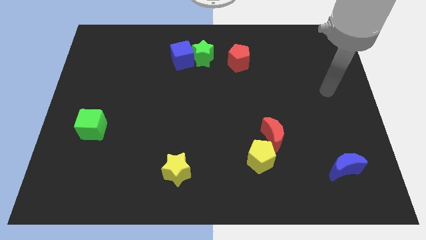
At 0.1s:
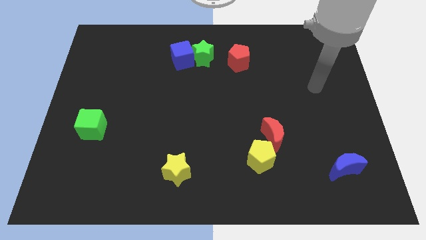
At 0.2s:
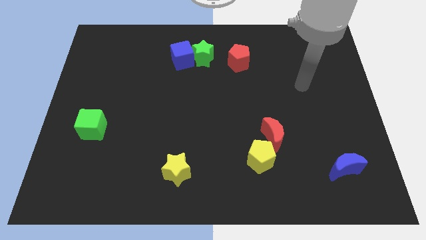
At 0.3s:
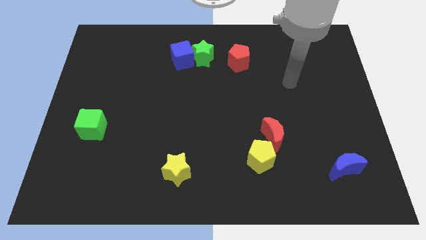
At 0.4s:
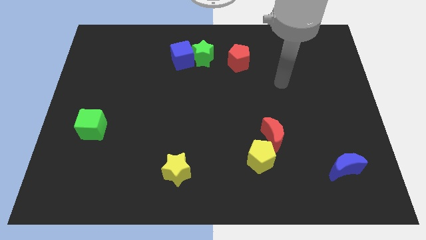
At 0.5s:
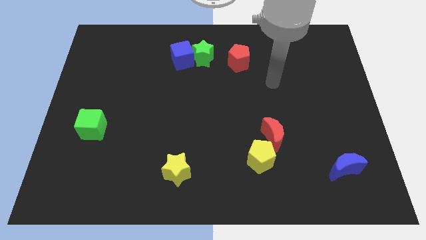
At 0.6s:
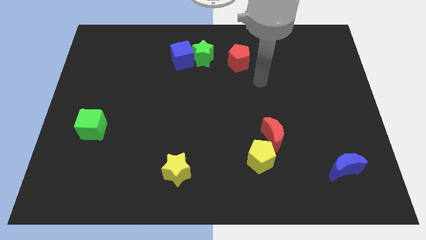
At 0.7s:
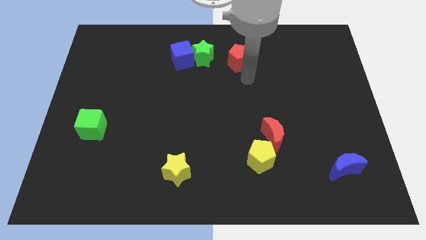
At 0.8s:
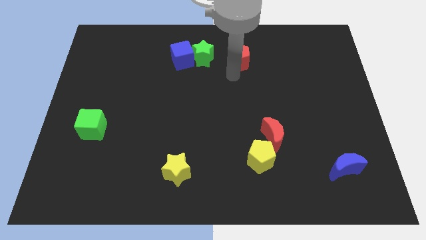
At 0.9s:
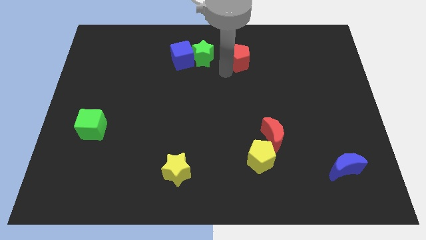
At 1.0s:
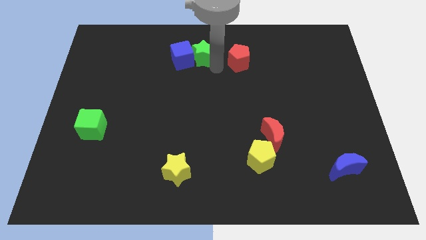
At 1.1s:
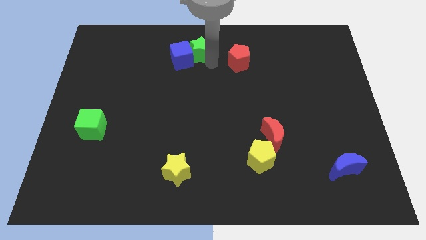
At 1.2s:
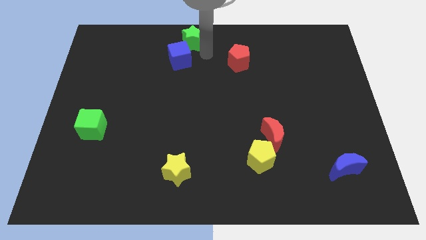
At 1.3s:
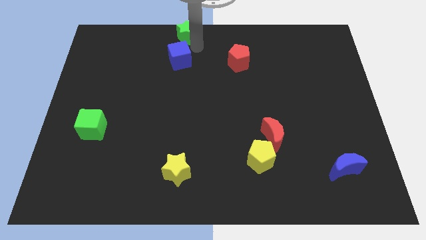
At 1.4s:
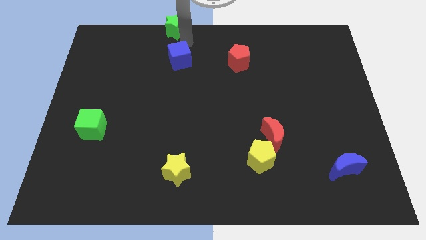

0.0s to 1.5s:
move the blue cube away from the green star

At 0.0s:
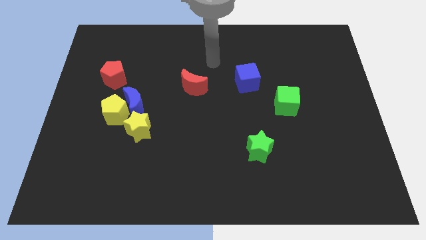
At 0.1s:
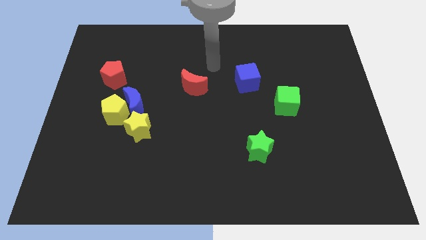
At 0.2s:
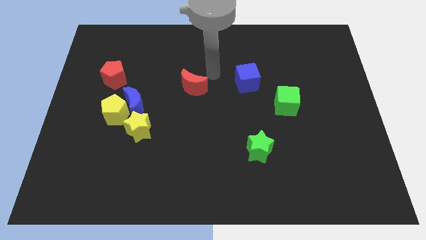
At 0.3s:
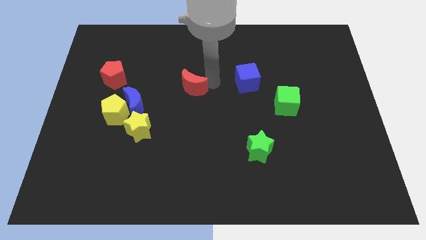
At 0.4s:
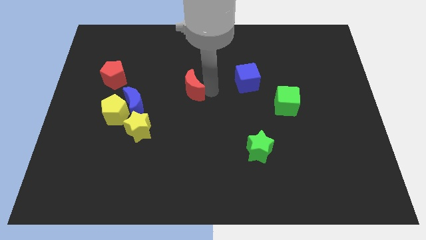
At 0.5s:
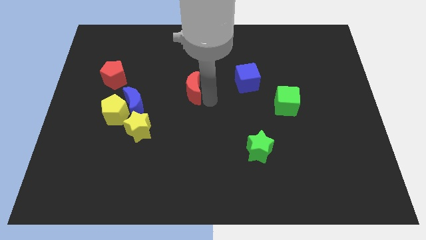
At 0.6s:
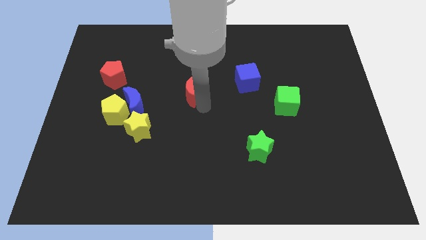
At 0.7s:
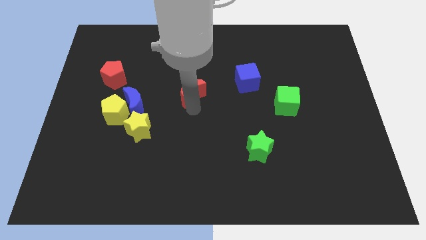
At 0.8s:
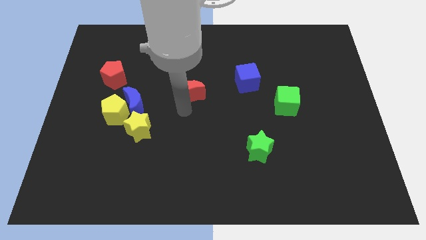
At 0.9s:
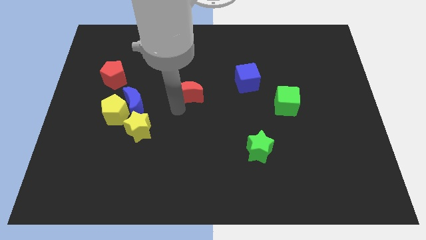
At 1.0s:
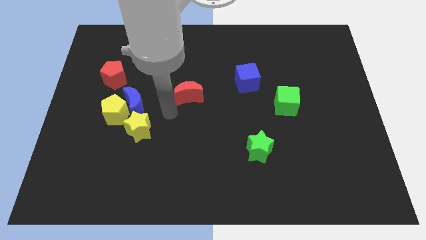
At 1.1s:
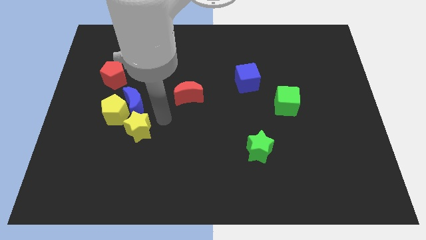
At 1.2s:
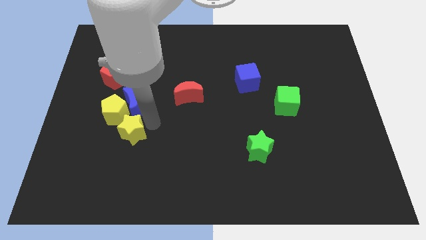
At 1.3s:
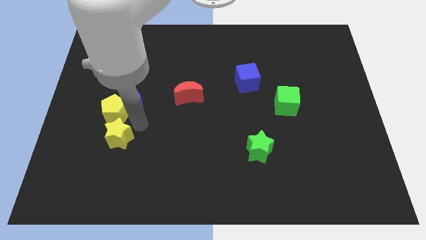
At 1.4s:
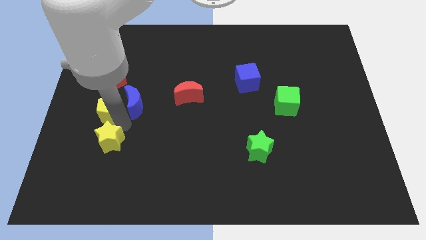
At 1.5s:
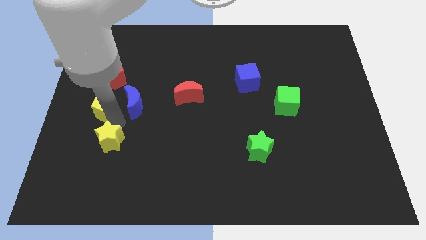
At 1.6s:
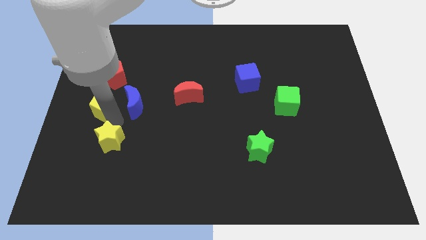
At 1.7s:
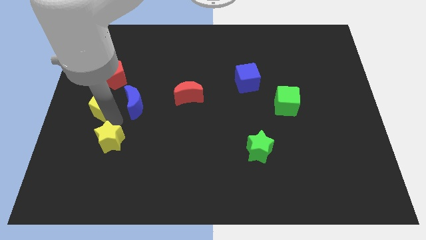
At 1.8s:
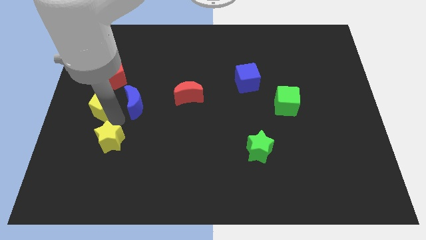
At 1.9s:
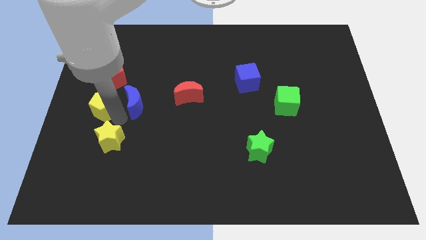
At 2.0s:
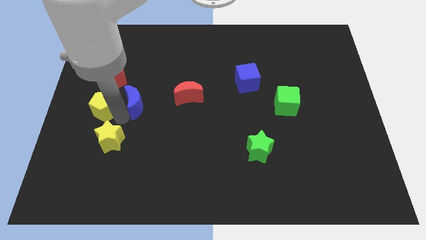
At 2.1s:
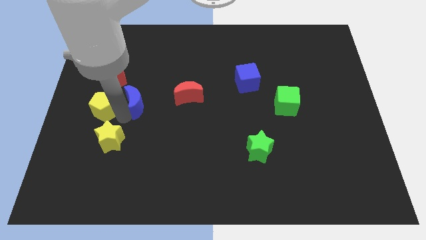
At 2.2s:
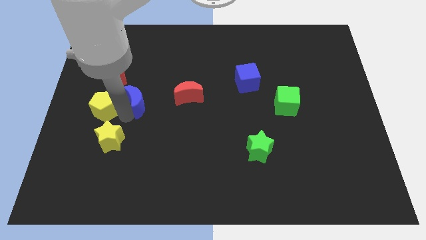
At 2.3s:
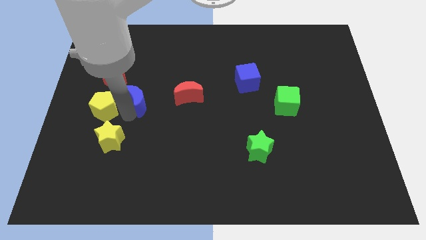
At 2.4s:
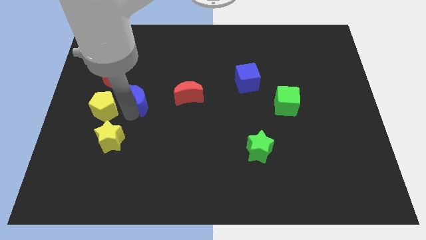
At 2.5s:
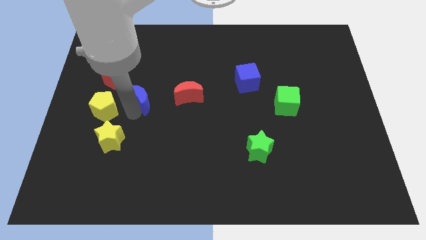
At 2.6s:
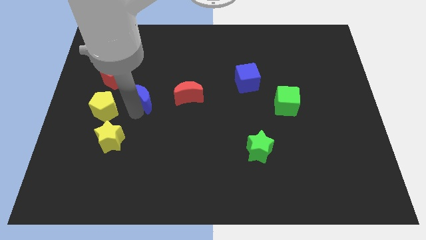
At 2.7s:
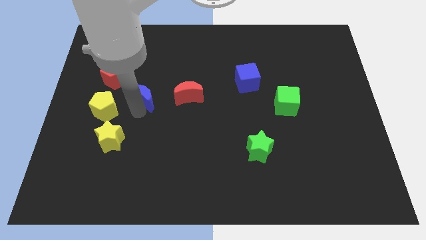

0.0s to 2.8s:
separate the blue moon from the yellow pentagon and yellow star

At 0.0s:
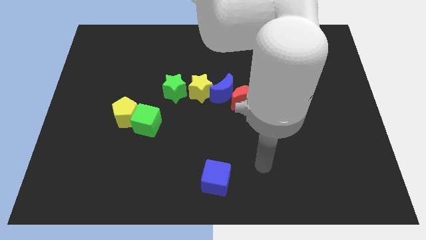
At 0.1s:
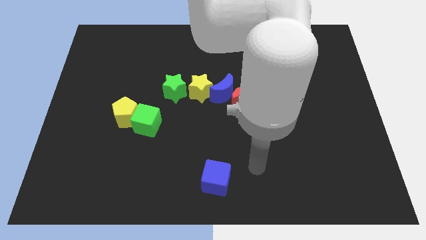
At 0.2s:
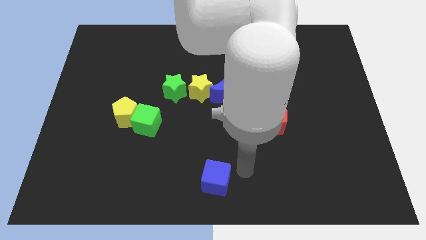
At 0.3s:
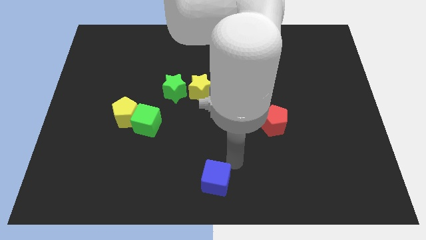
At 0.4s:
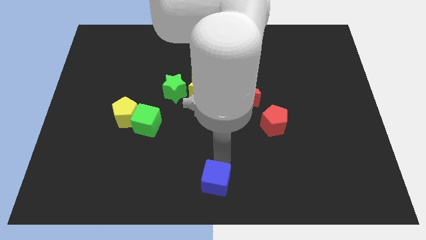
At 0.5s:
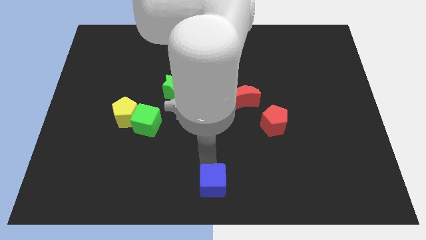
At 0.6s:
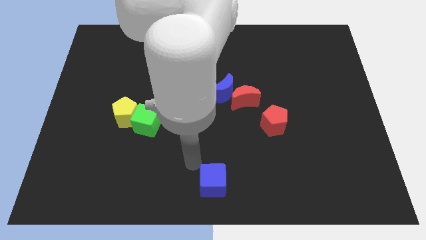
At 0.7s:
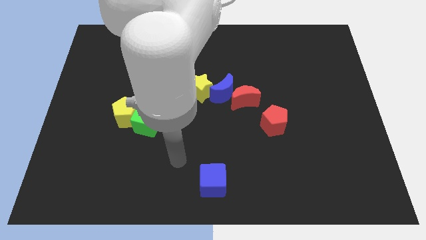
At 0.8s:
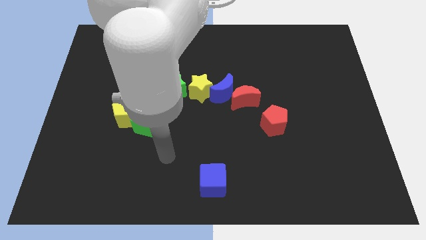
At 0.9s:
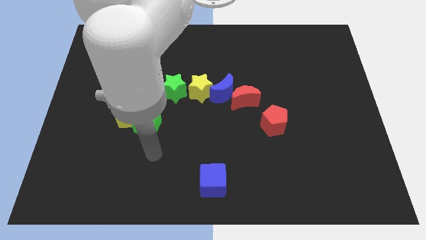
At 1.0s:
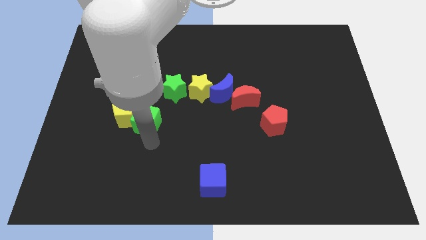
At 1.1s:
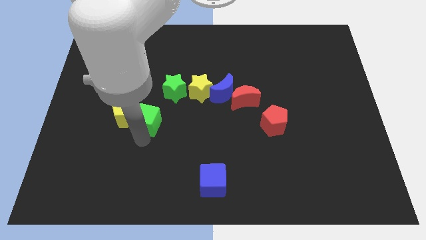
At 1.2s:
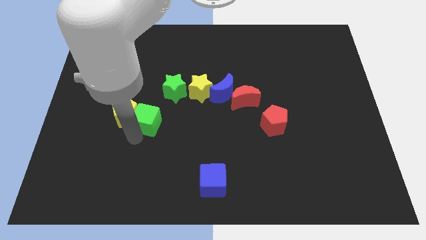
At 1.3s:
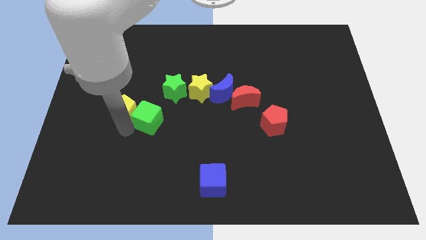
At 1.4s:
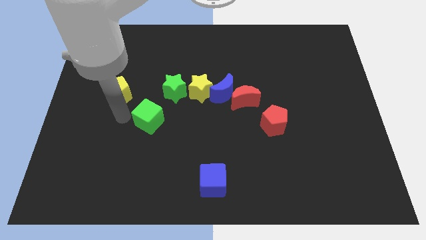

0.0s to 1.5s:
separate the green cube from the yellow pentagon

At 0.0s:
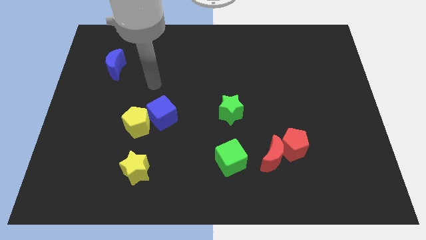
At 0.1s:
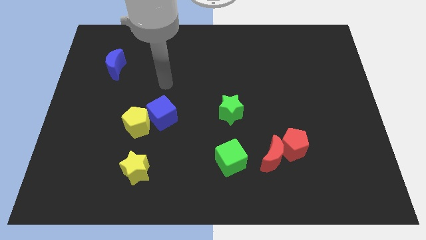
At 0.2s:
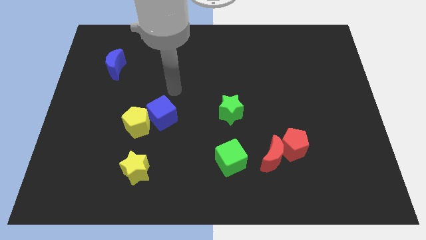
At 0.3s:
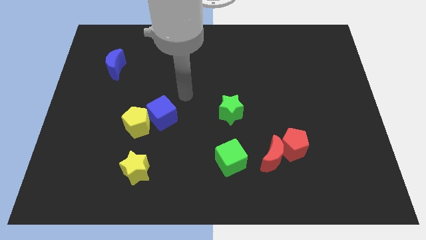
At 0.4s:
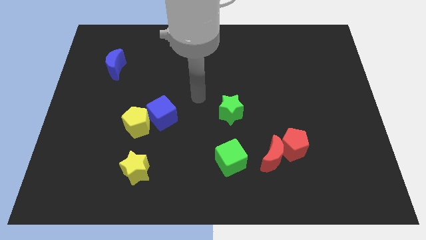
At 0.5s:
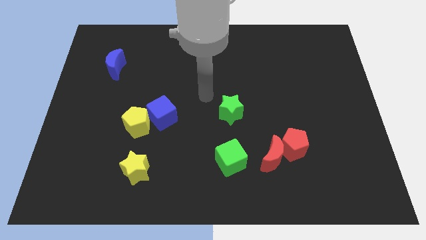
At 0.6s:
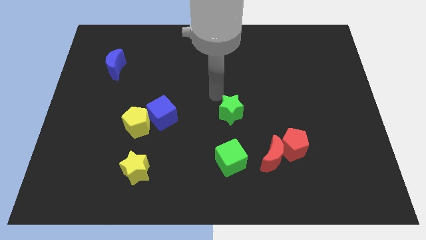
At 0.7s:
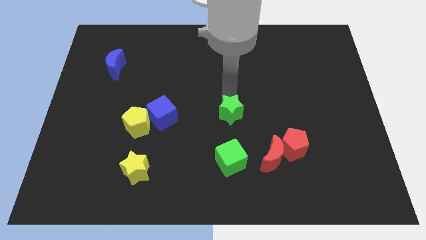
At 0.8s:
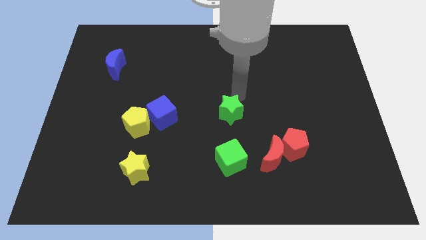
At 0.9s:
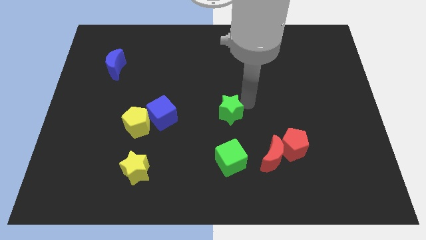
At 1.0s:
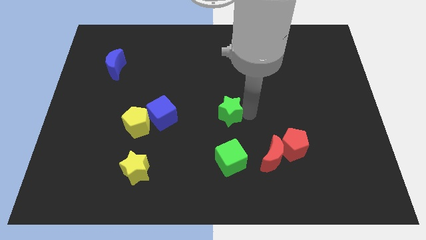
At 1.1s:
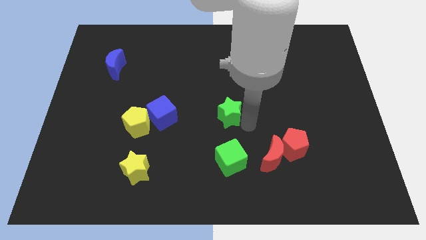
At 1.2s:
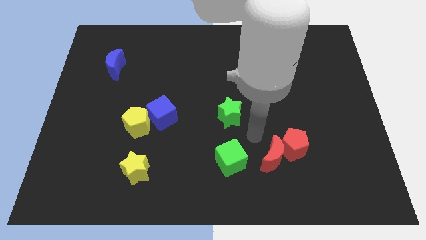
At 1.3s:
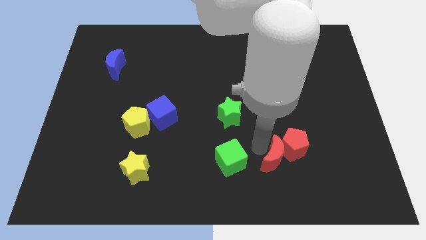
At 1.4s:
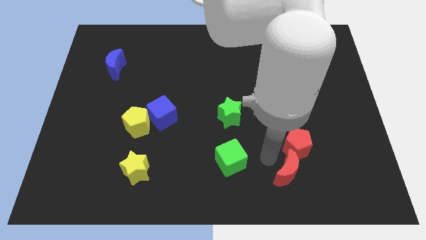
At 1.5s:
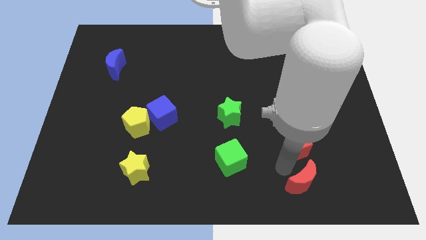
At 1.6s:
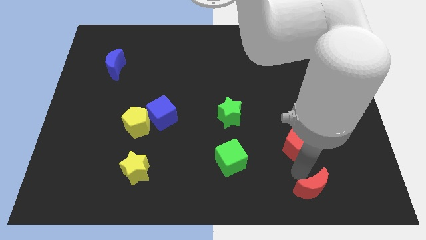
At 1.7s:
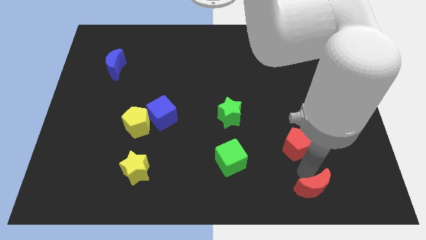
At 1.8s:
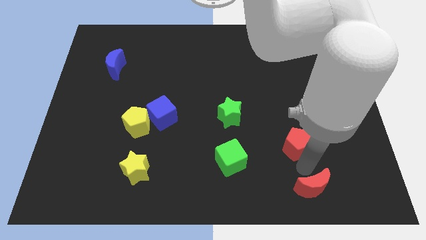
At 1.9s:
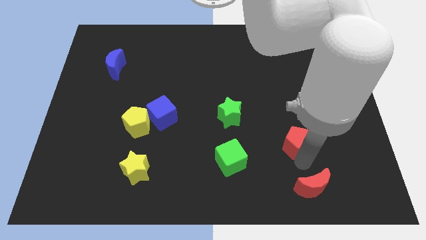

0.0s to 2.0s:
move the red pentagon away from the red moon

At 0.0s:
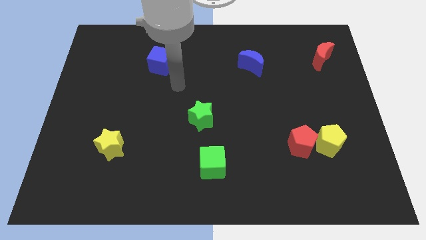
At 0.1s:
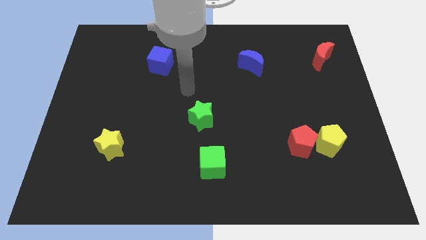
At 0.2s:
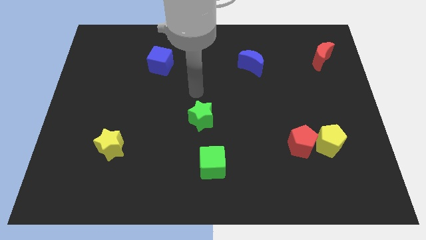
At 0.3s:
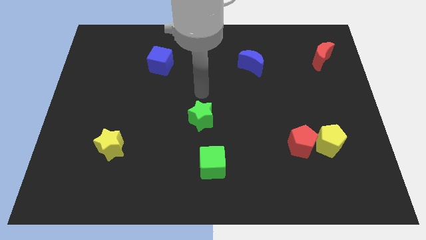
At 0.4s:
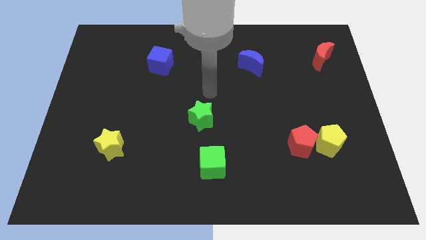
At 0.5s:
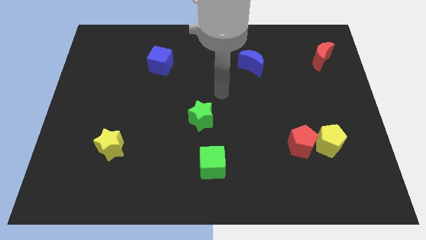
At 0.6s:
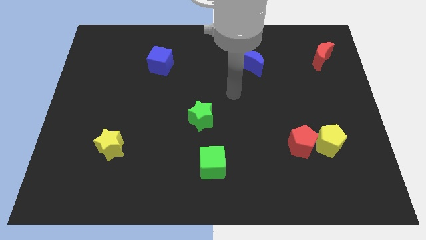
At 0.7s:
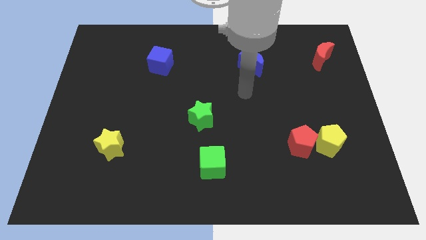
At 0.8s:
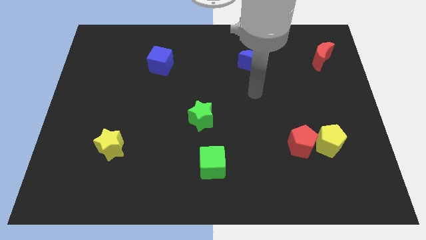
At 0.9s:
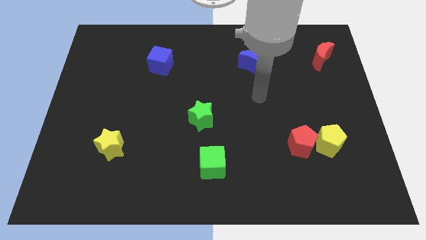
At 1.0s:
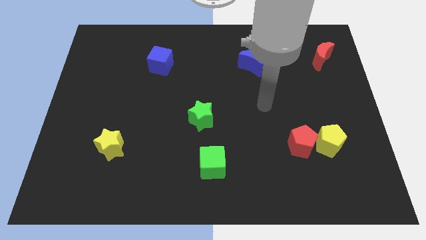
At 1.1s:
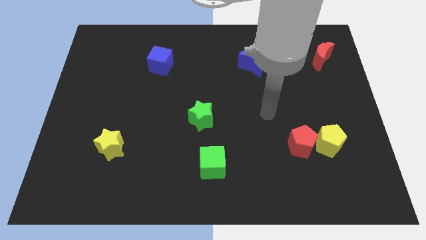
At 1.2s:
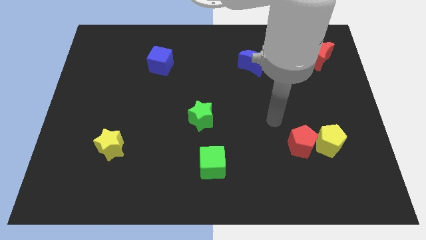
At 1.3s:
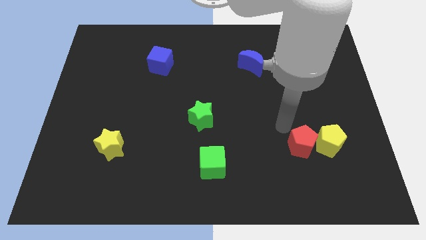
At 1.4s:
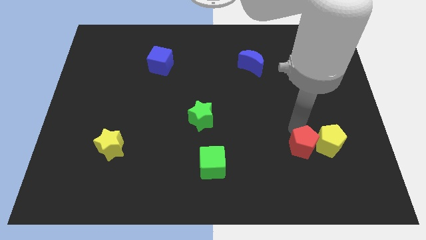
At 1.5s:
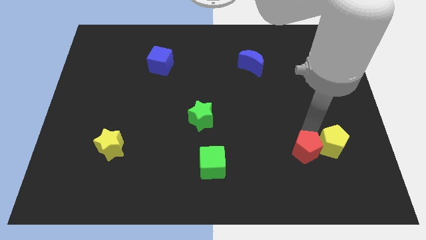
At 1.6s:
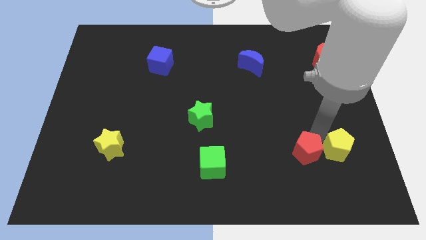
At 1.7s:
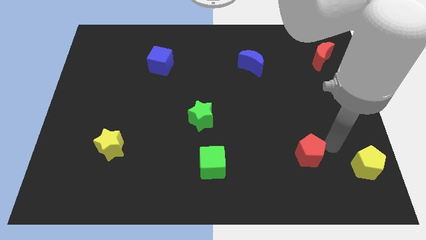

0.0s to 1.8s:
pull the red pentagon apart from the yellow pentagon
